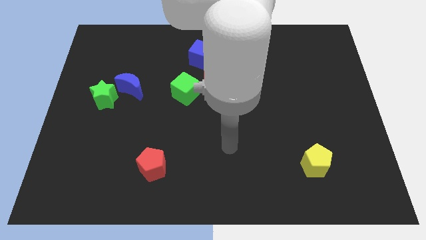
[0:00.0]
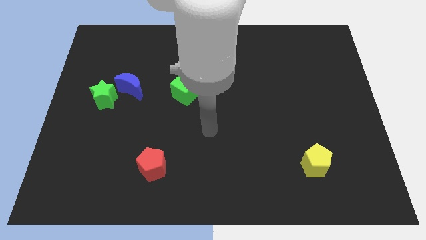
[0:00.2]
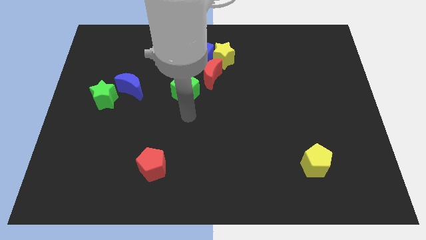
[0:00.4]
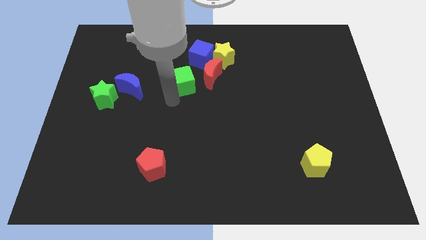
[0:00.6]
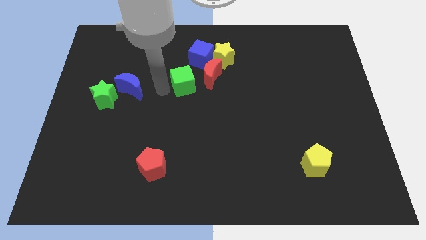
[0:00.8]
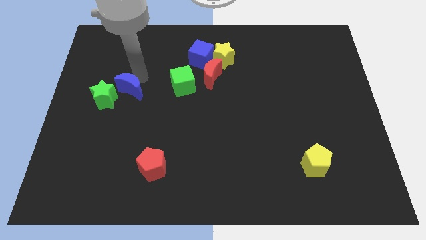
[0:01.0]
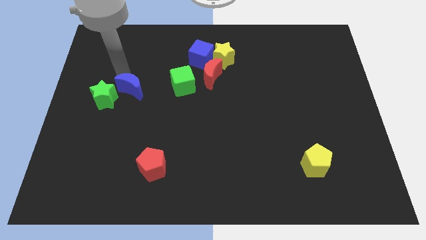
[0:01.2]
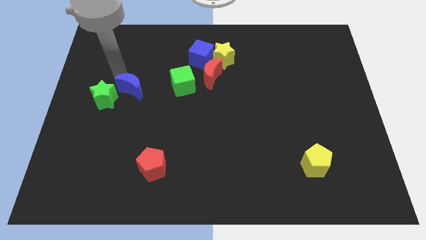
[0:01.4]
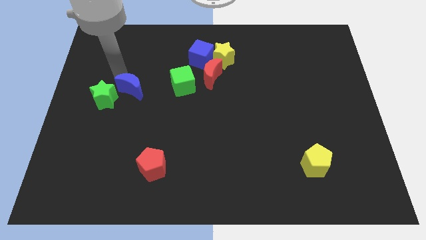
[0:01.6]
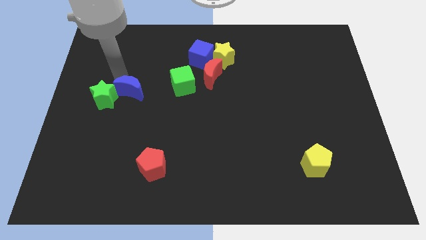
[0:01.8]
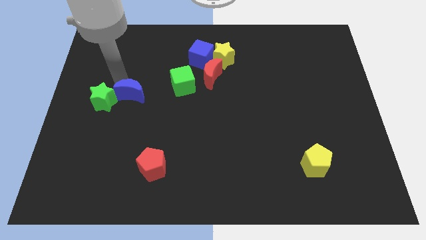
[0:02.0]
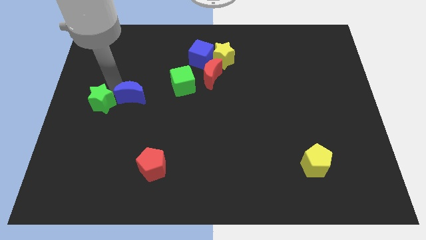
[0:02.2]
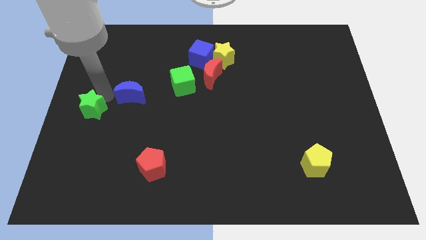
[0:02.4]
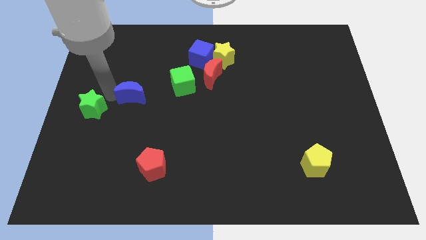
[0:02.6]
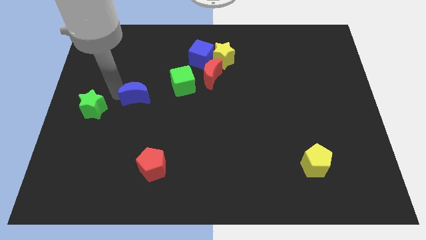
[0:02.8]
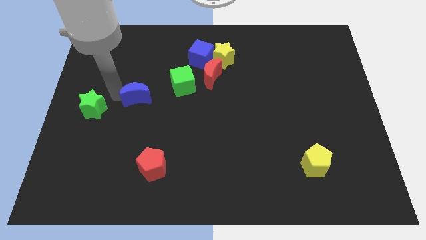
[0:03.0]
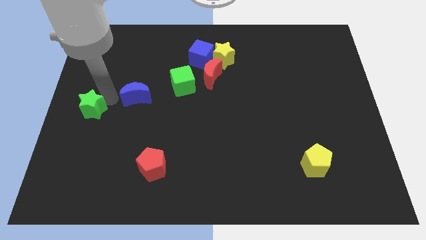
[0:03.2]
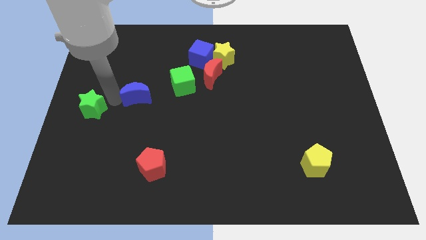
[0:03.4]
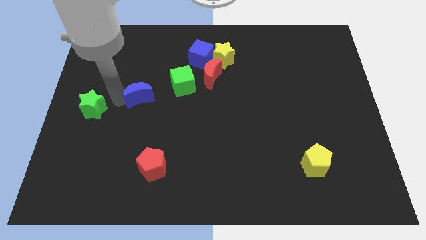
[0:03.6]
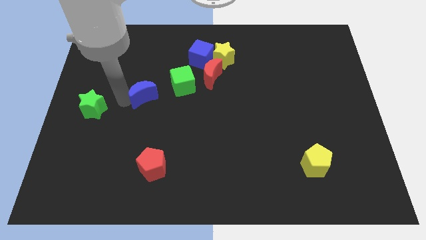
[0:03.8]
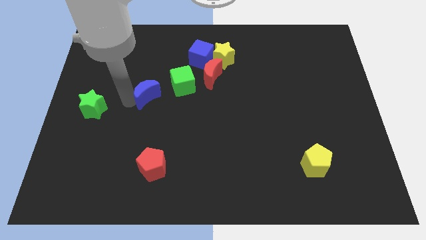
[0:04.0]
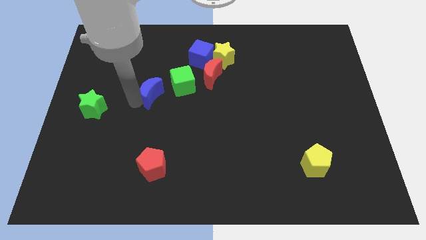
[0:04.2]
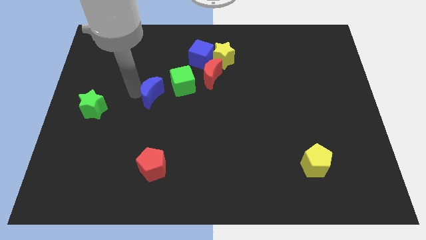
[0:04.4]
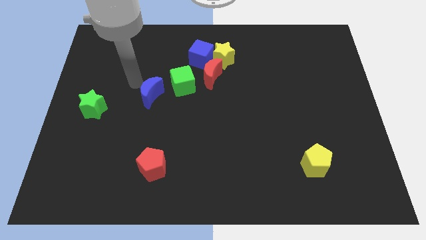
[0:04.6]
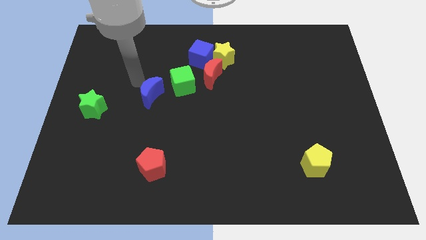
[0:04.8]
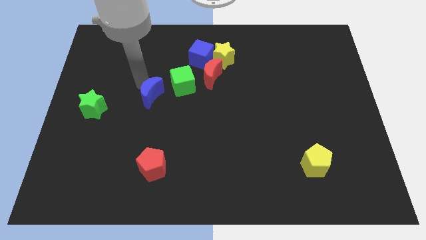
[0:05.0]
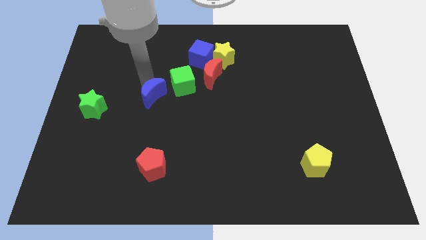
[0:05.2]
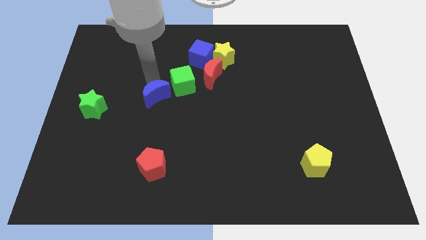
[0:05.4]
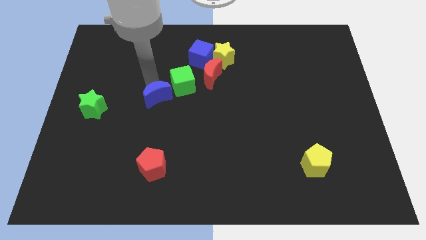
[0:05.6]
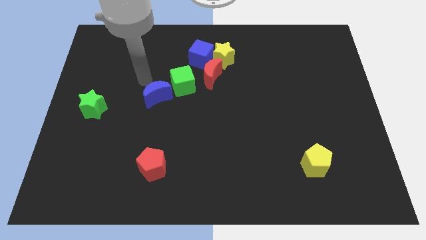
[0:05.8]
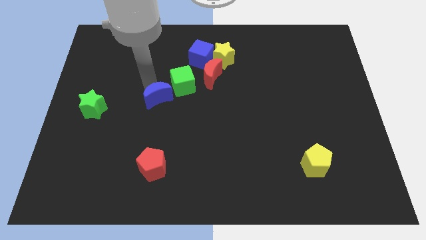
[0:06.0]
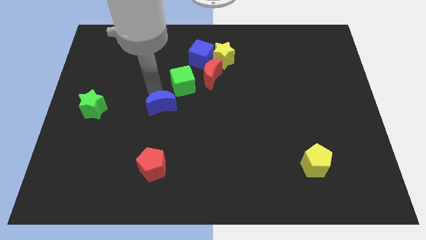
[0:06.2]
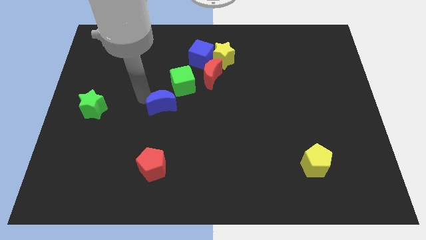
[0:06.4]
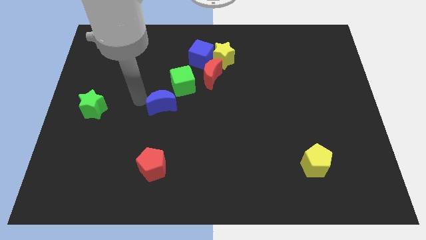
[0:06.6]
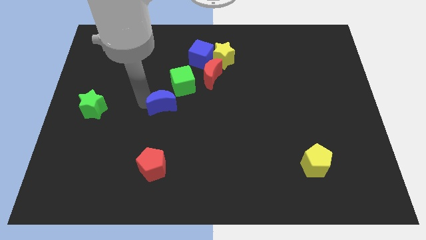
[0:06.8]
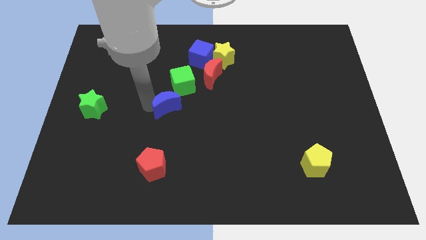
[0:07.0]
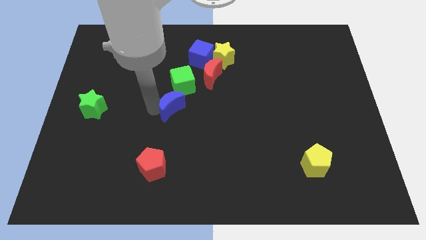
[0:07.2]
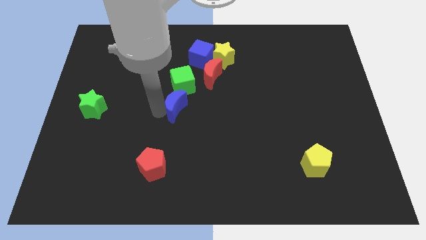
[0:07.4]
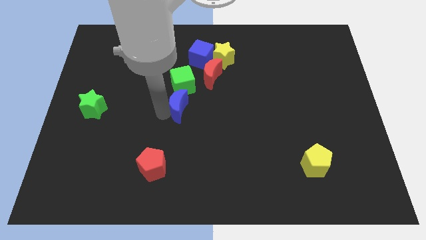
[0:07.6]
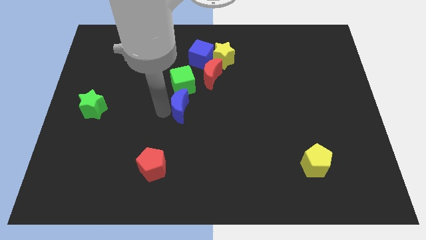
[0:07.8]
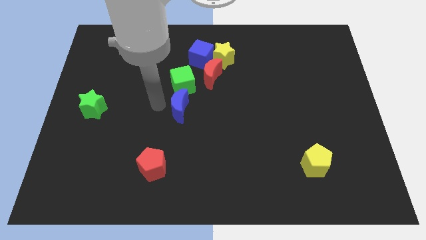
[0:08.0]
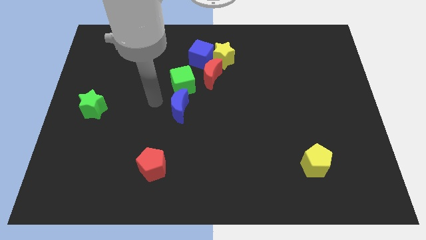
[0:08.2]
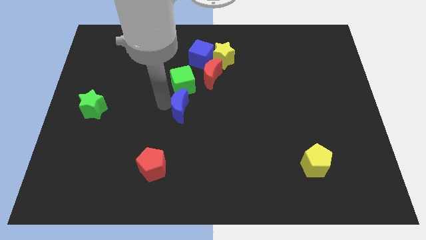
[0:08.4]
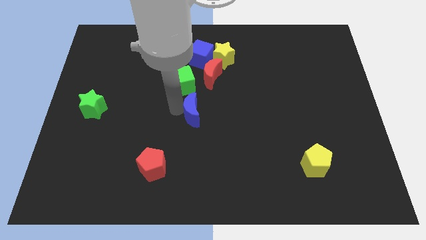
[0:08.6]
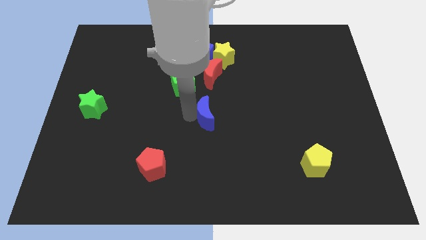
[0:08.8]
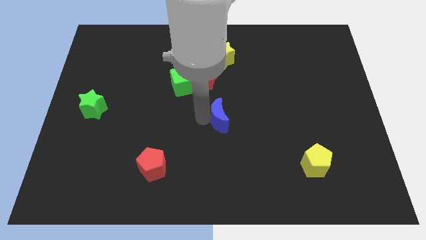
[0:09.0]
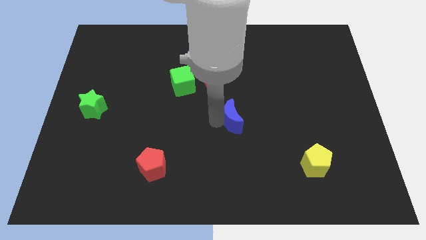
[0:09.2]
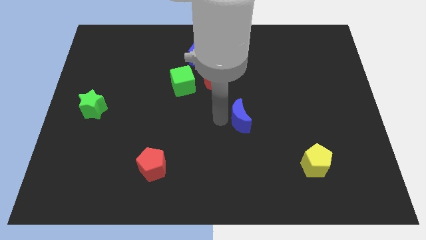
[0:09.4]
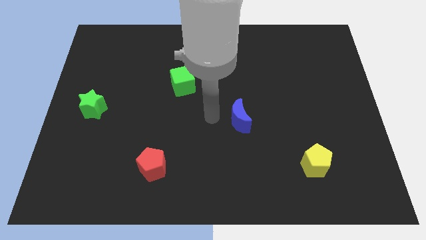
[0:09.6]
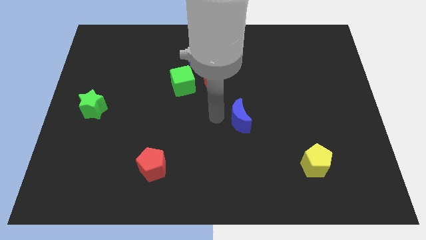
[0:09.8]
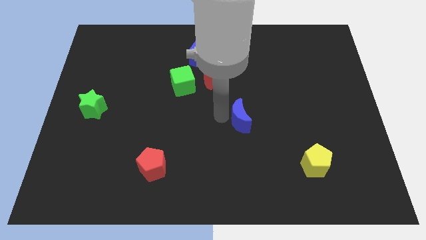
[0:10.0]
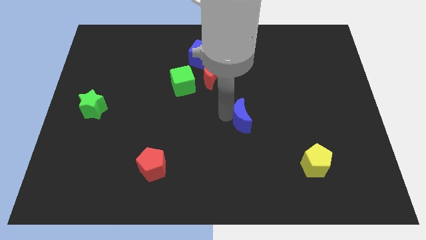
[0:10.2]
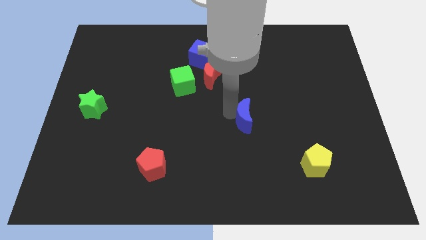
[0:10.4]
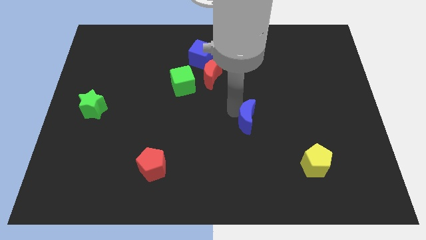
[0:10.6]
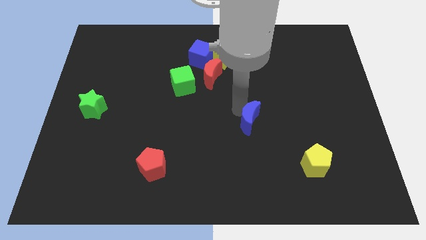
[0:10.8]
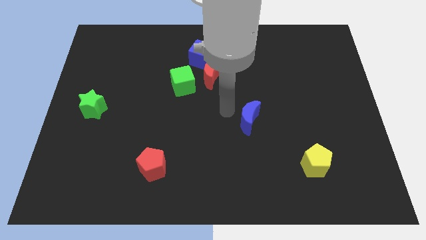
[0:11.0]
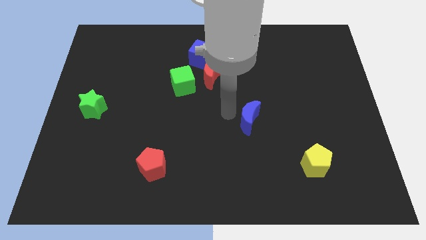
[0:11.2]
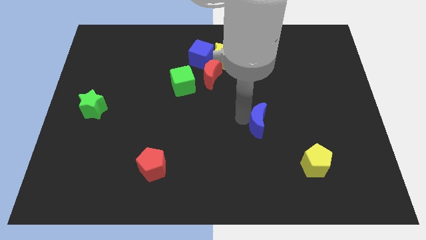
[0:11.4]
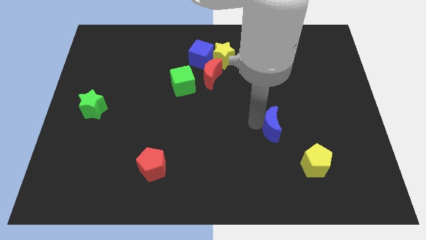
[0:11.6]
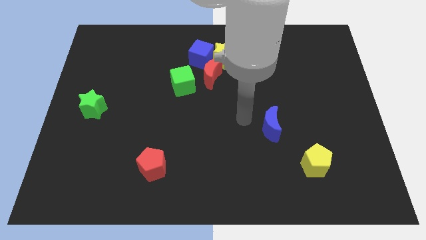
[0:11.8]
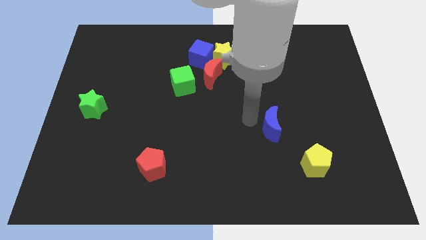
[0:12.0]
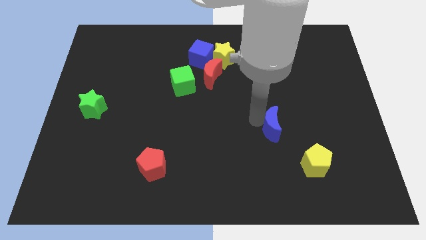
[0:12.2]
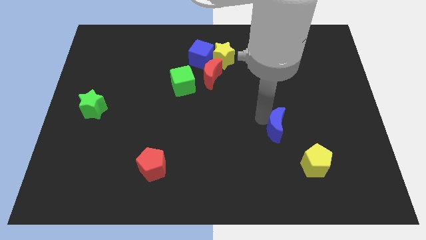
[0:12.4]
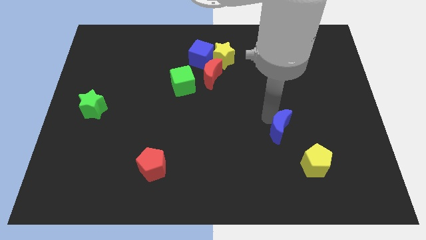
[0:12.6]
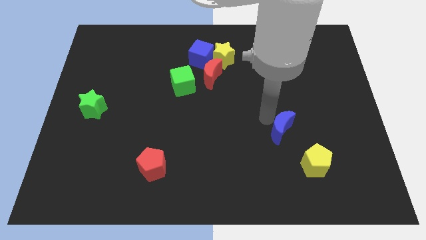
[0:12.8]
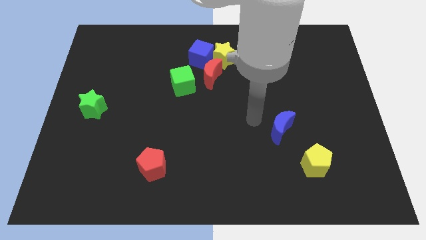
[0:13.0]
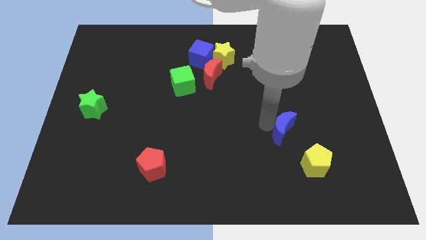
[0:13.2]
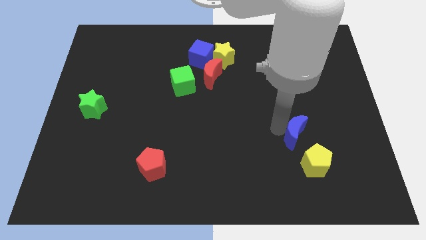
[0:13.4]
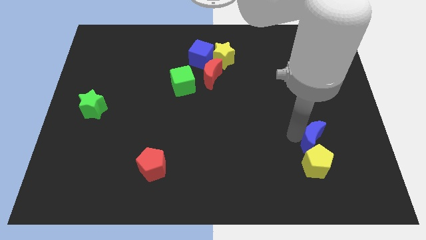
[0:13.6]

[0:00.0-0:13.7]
push the blue moon to the top right of the yellow pentagon
